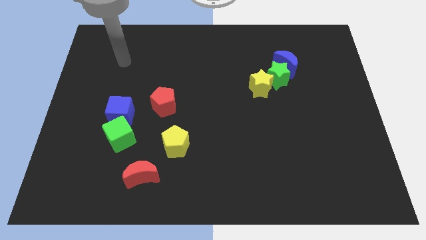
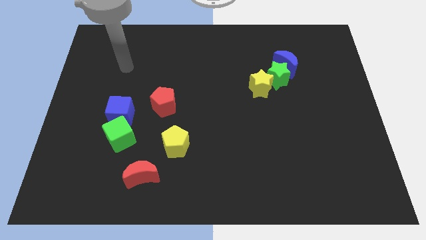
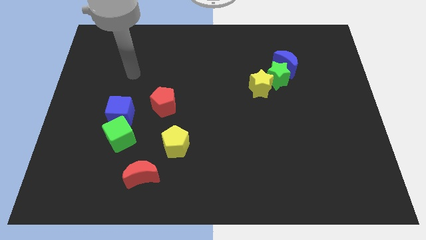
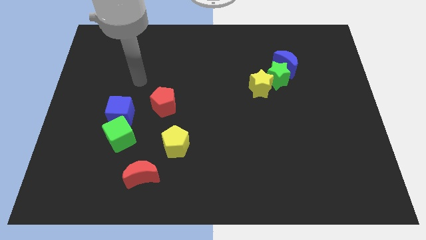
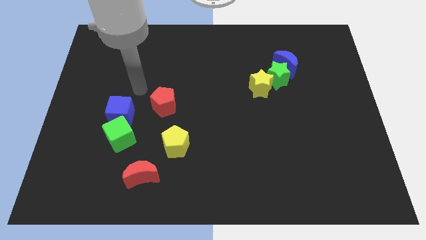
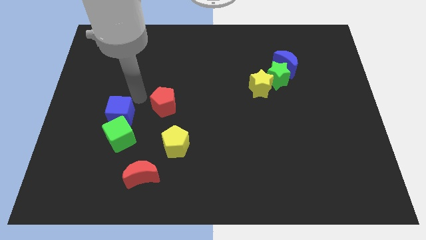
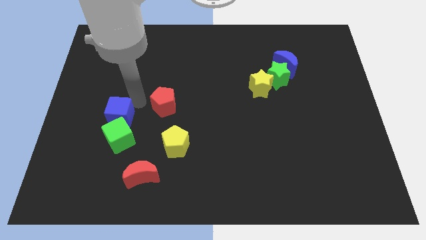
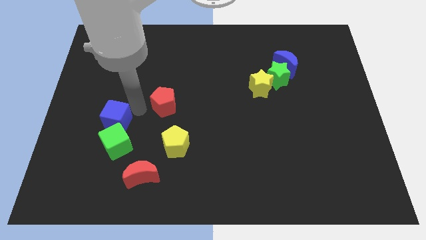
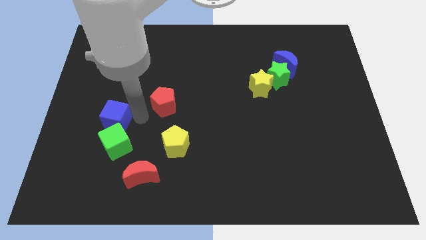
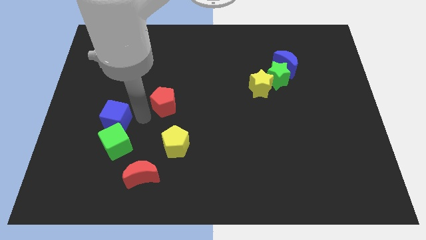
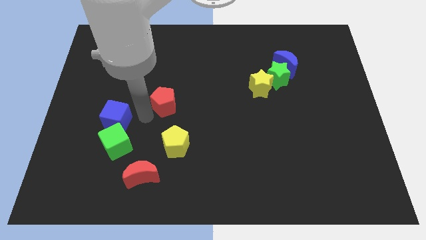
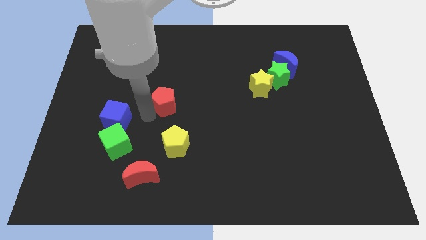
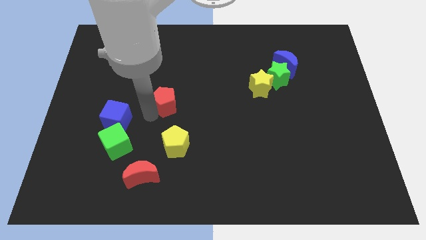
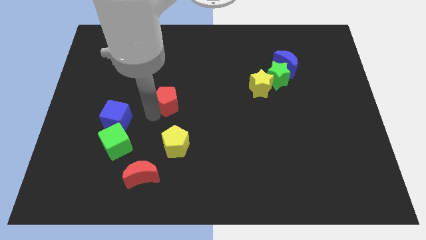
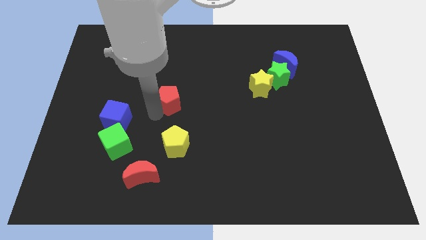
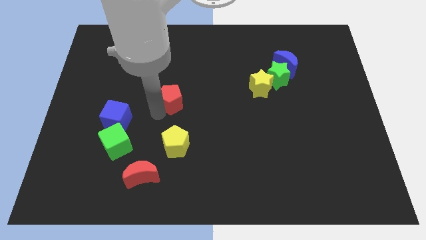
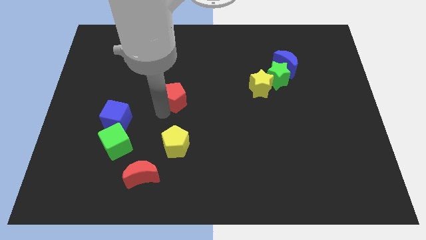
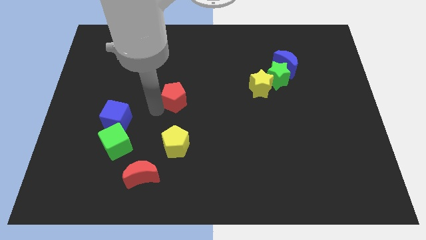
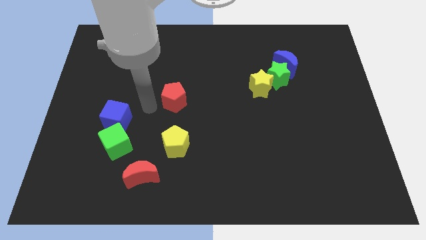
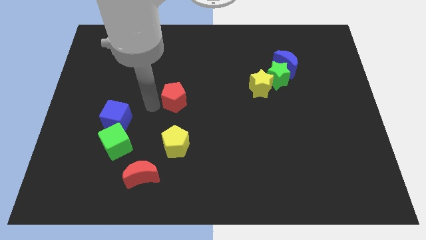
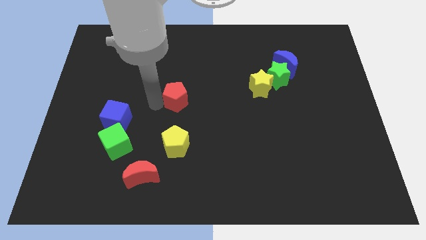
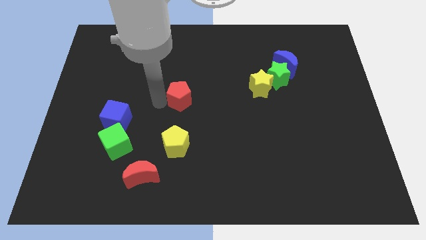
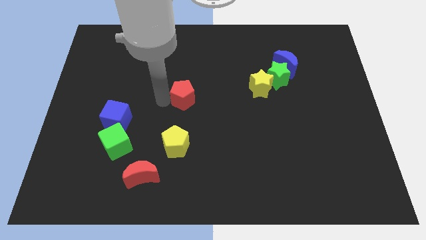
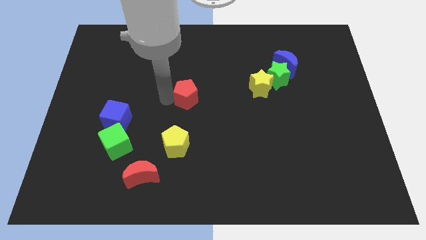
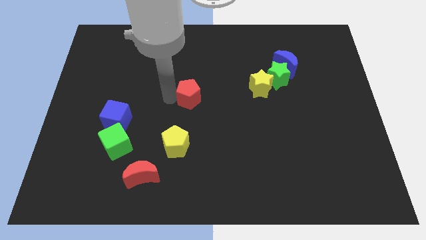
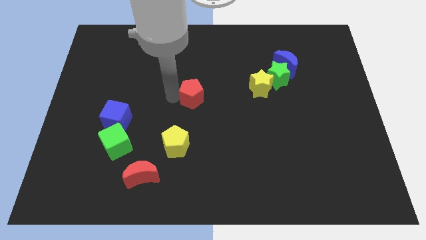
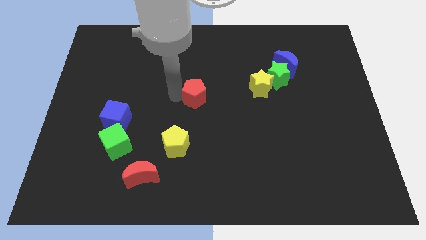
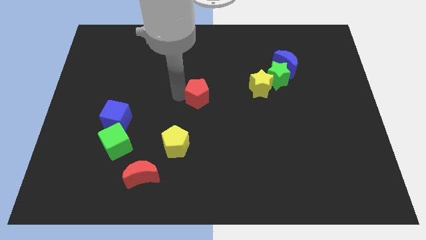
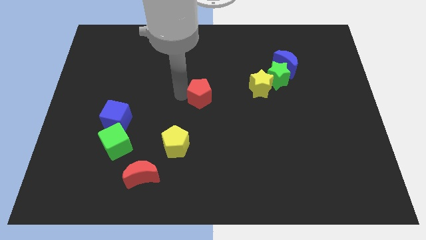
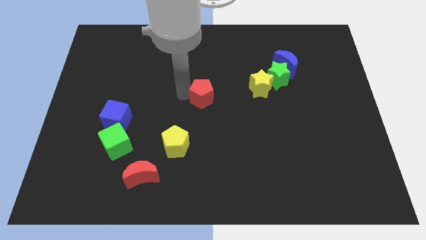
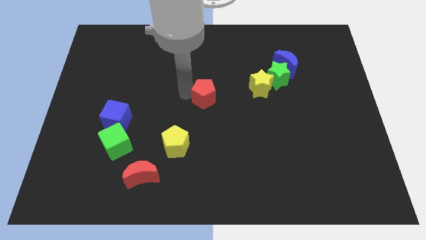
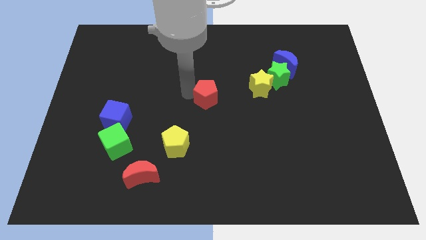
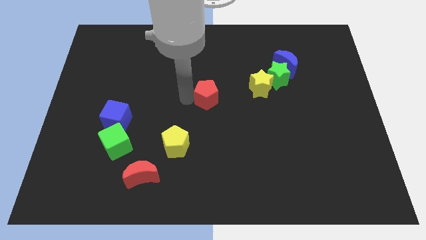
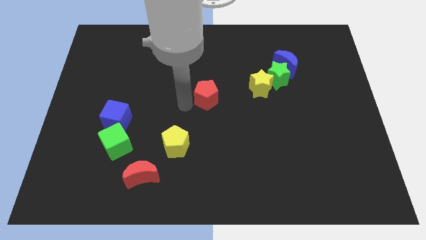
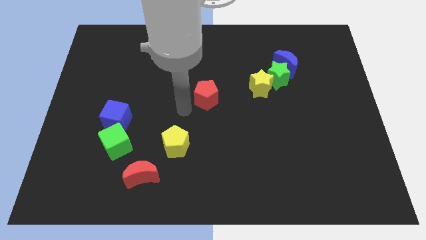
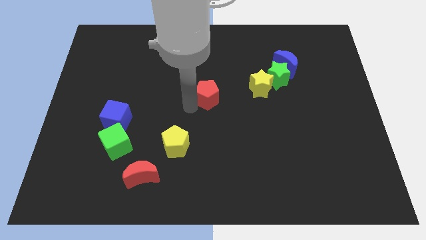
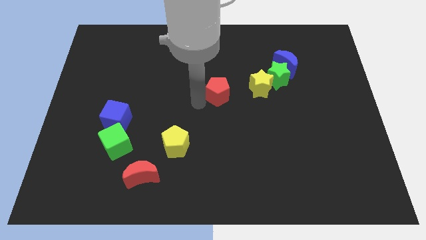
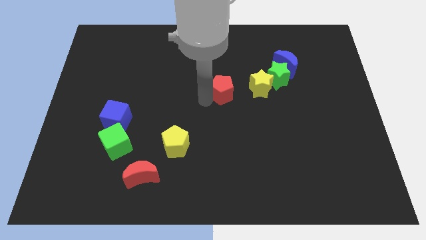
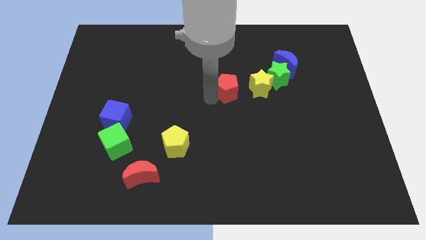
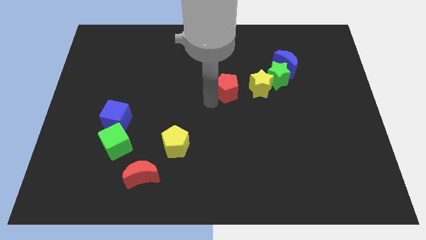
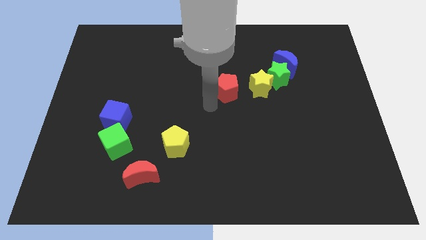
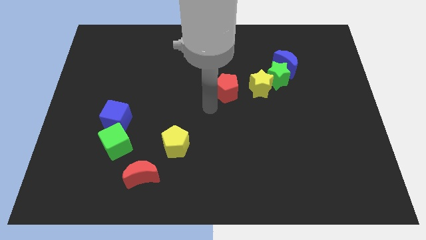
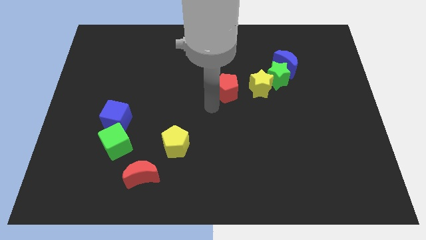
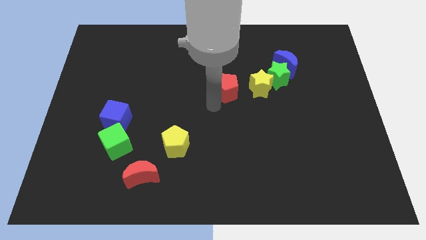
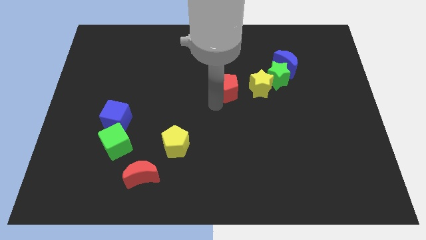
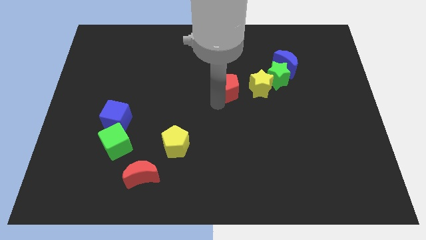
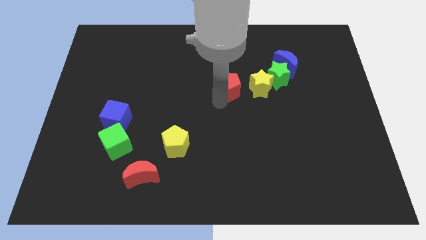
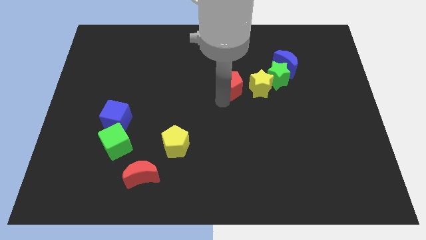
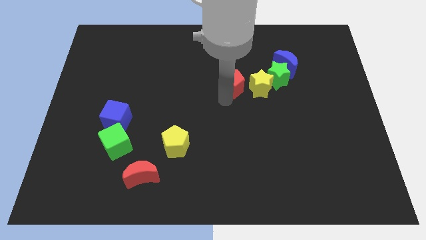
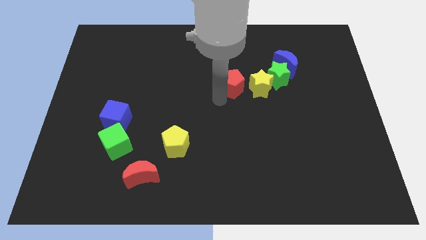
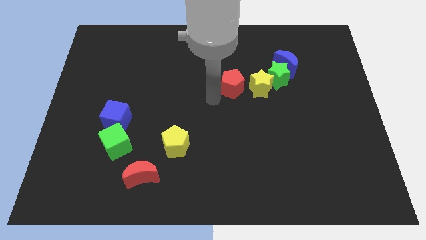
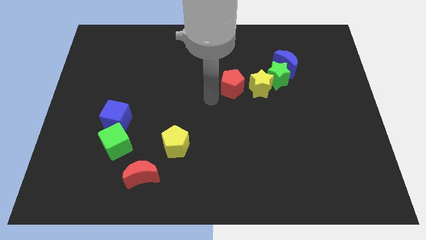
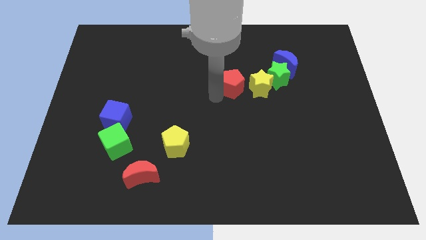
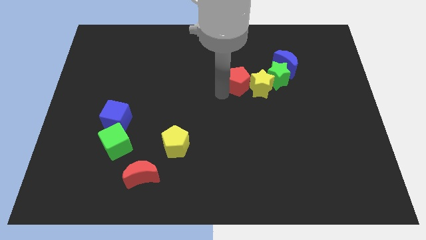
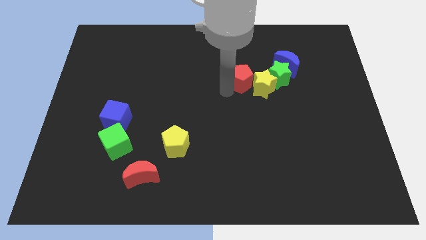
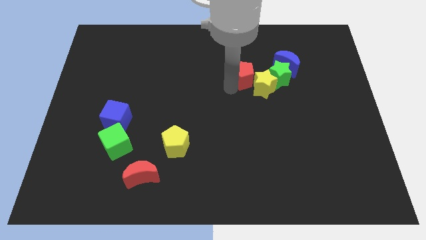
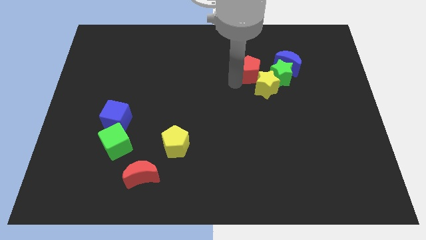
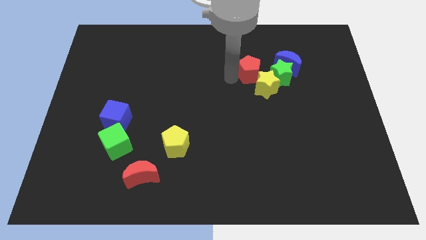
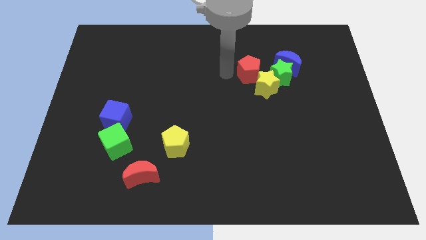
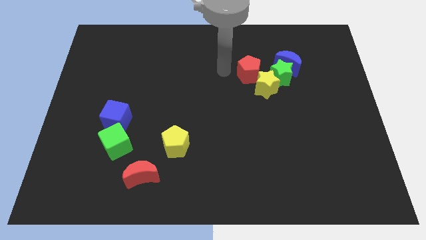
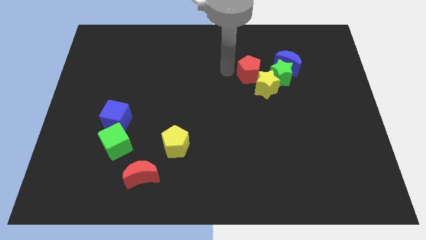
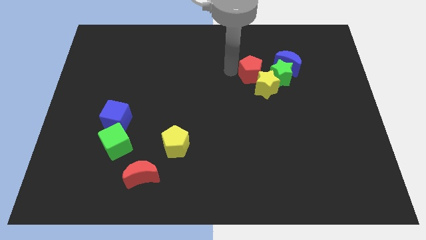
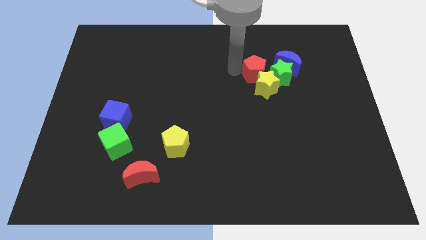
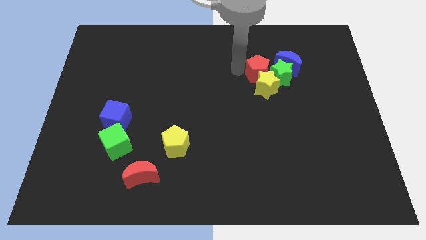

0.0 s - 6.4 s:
push the red pentagon close to the green star
